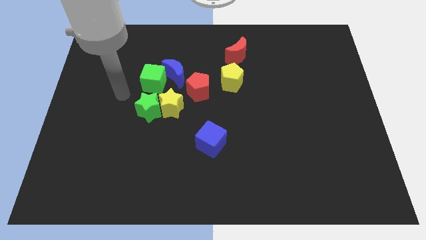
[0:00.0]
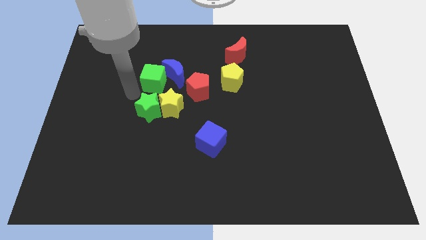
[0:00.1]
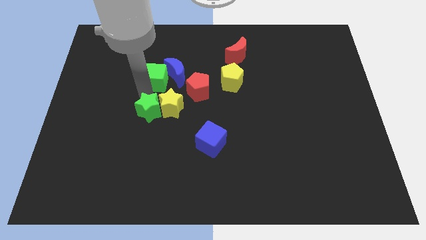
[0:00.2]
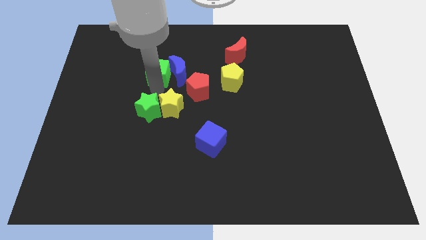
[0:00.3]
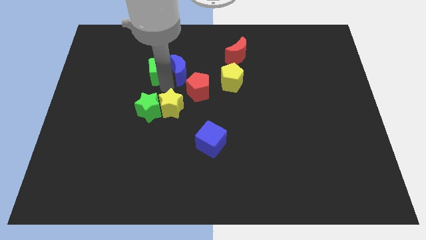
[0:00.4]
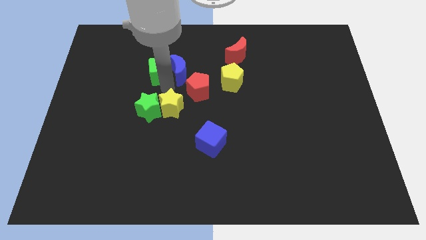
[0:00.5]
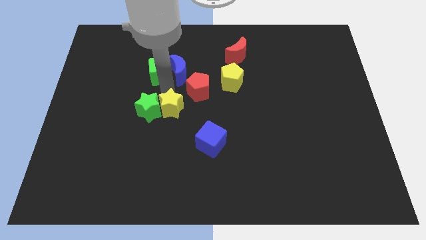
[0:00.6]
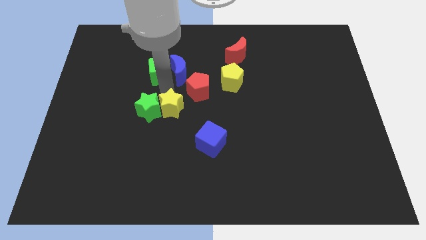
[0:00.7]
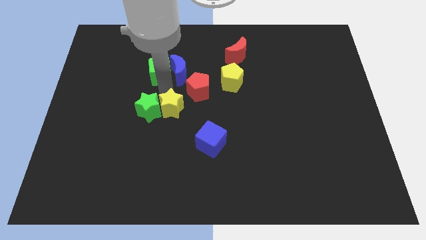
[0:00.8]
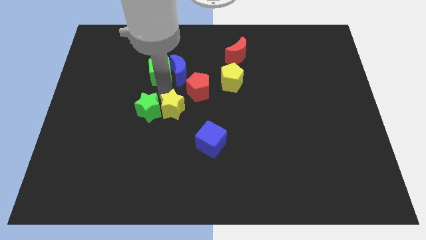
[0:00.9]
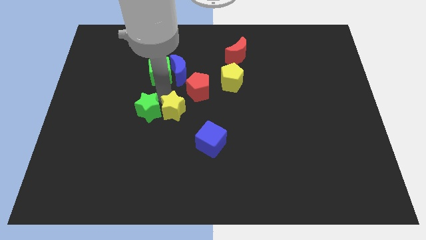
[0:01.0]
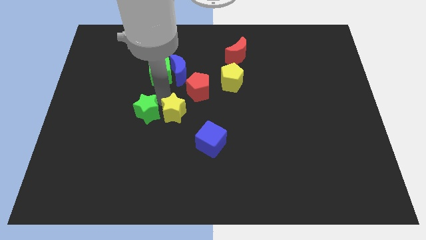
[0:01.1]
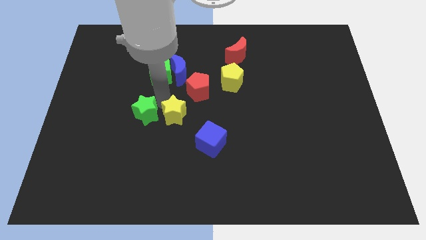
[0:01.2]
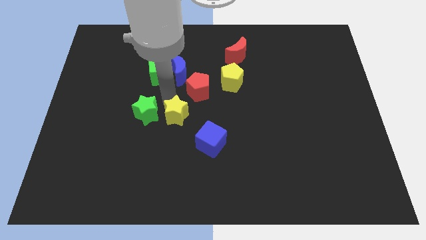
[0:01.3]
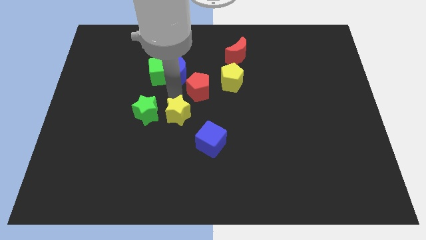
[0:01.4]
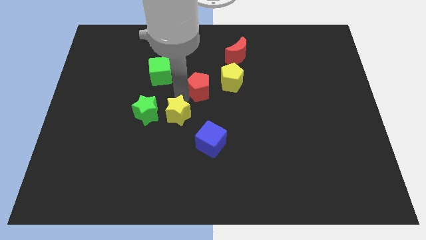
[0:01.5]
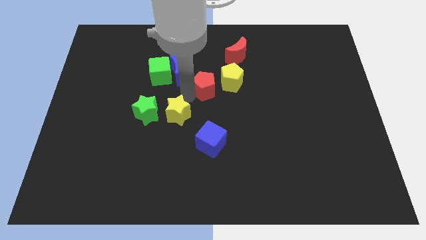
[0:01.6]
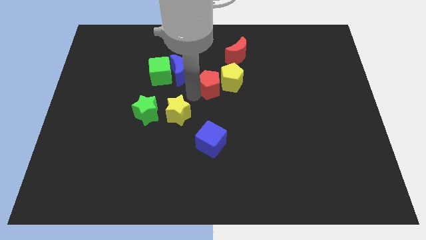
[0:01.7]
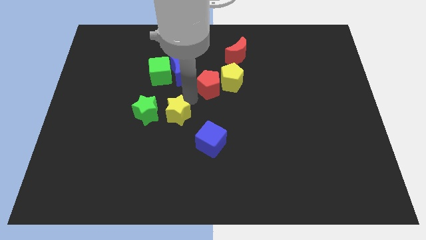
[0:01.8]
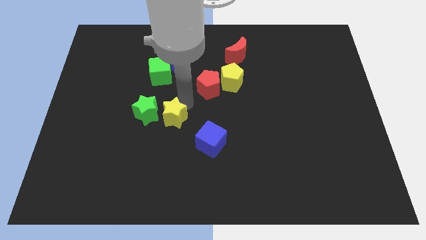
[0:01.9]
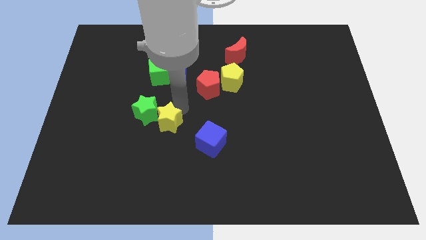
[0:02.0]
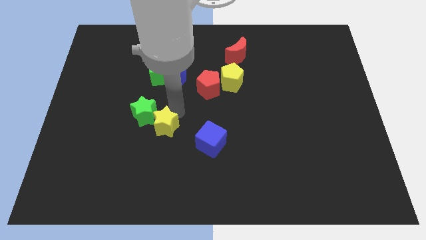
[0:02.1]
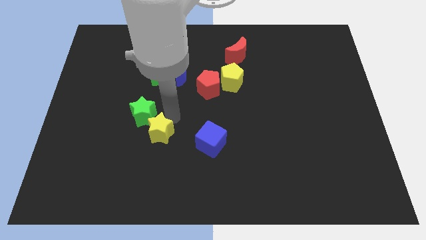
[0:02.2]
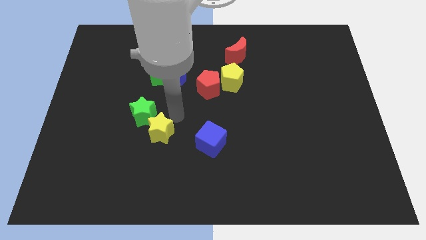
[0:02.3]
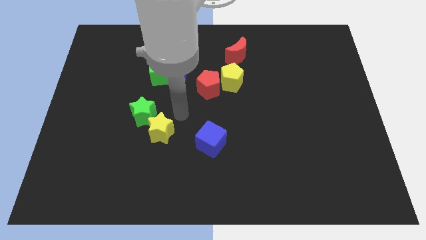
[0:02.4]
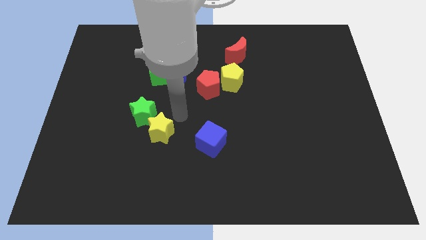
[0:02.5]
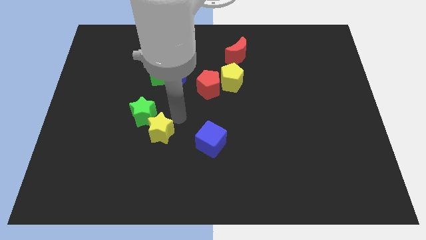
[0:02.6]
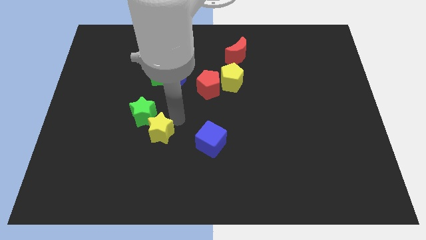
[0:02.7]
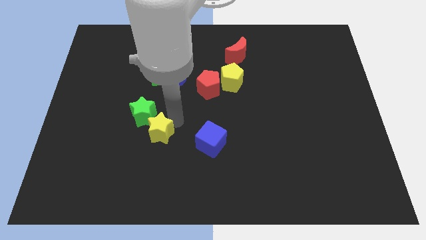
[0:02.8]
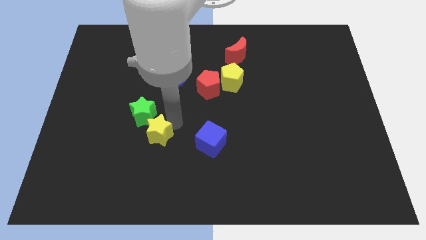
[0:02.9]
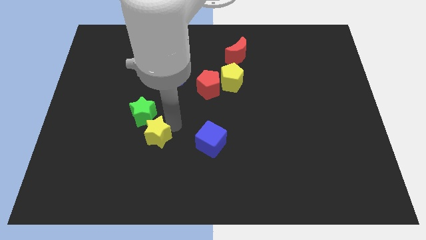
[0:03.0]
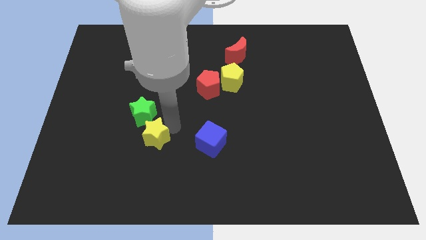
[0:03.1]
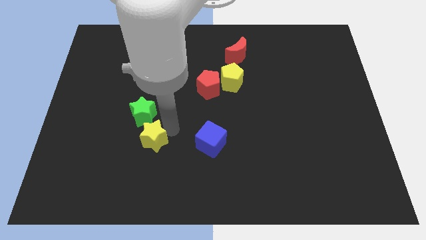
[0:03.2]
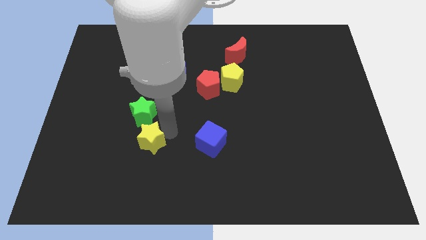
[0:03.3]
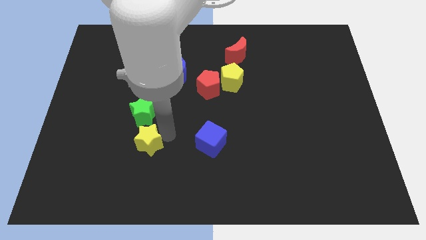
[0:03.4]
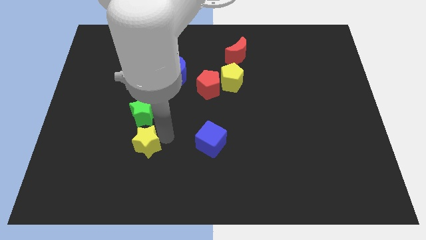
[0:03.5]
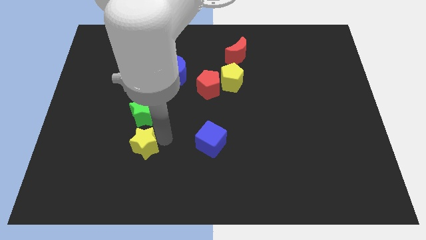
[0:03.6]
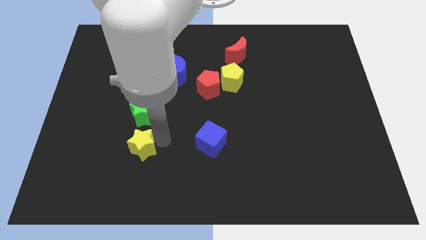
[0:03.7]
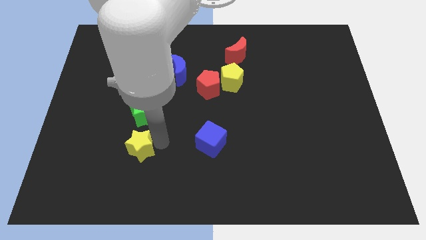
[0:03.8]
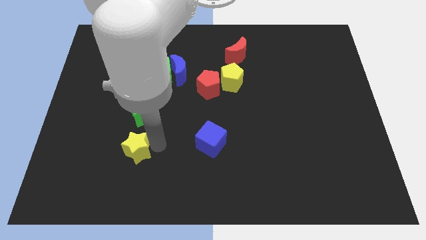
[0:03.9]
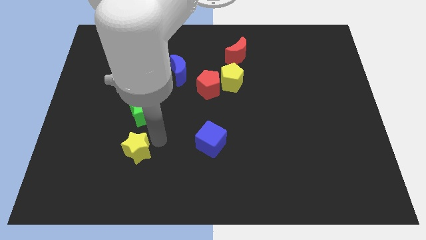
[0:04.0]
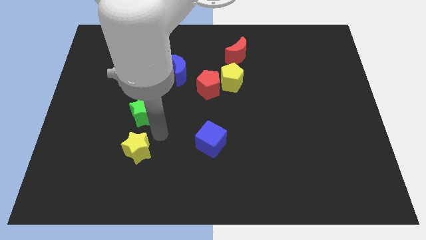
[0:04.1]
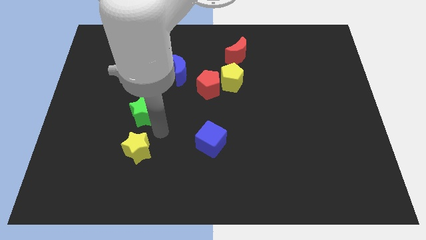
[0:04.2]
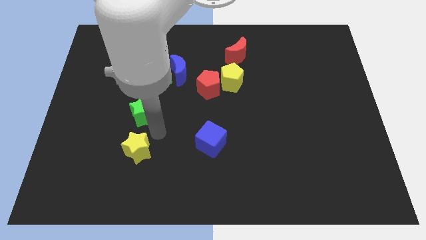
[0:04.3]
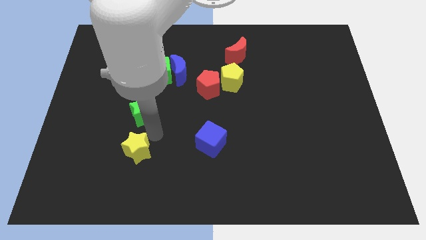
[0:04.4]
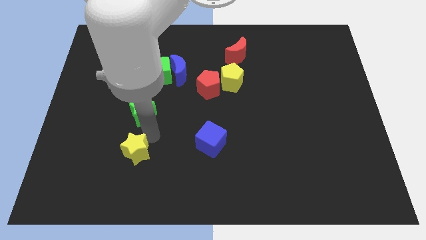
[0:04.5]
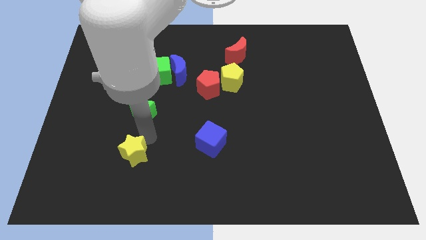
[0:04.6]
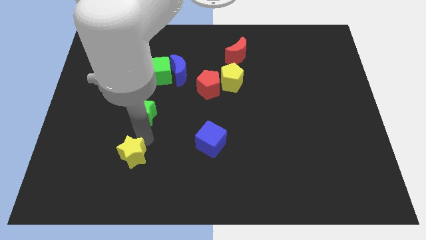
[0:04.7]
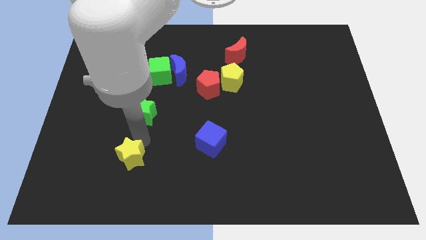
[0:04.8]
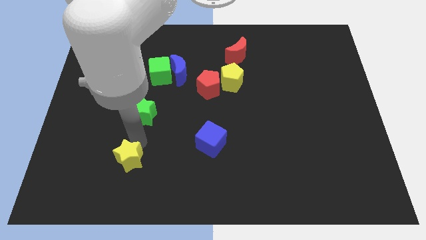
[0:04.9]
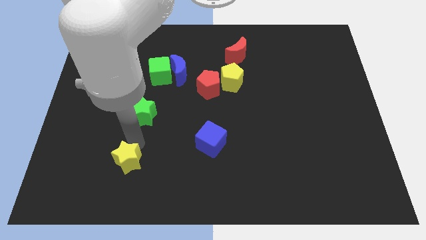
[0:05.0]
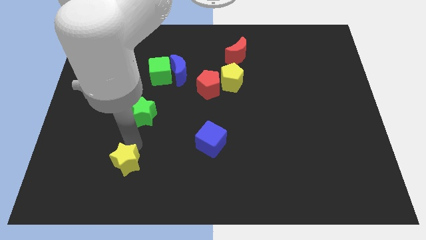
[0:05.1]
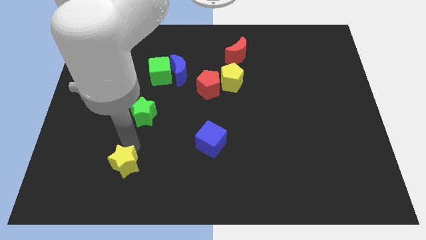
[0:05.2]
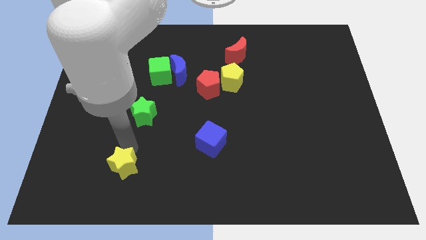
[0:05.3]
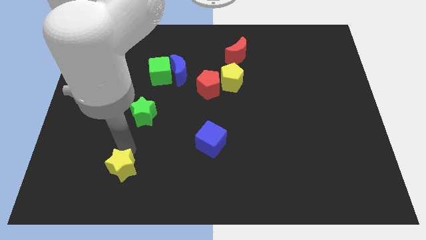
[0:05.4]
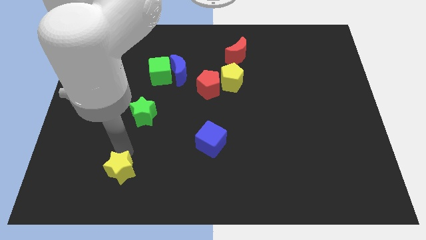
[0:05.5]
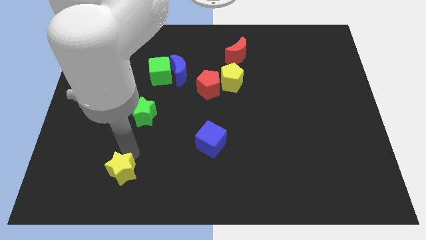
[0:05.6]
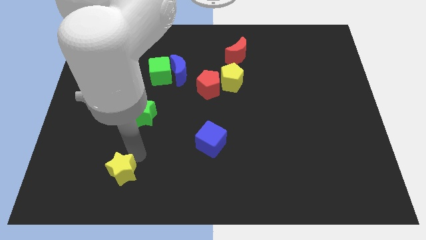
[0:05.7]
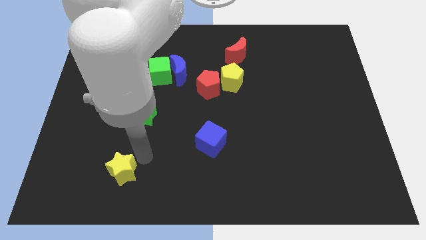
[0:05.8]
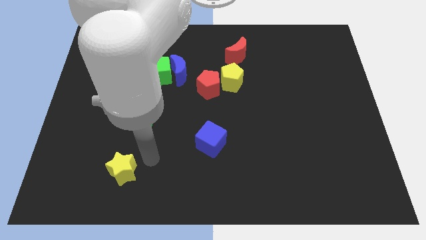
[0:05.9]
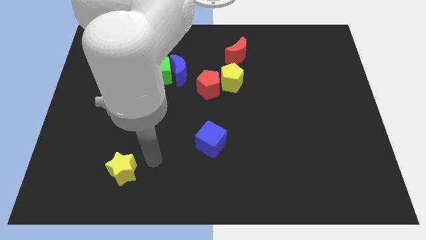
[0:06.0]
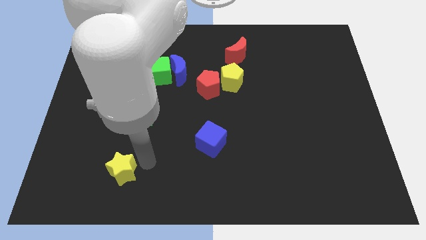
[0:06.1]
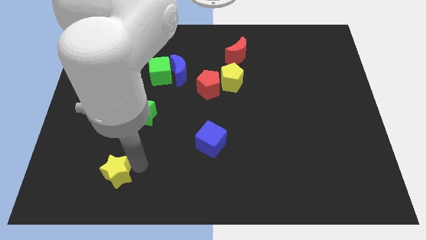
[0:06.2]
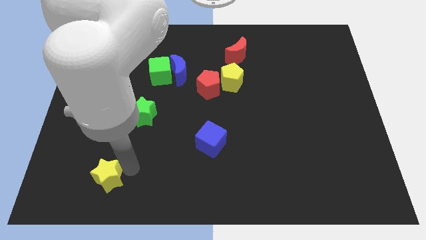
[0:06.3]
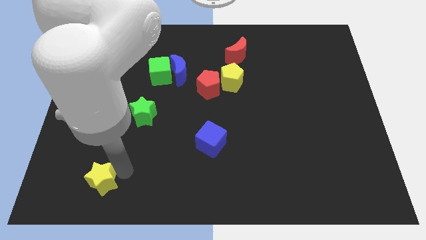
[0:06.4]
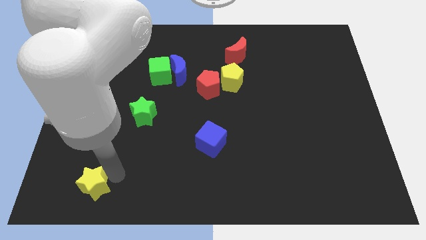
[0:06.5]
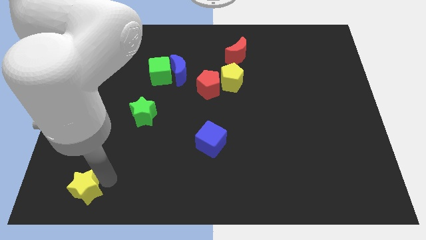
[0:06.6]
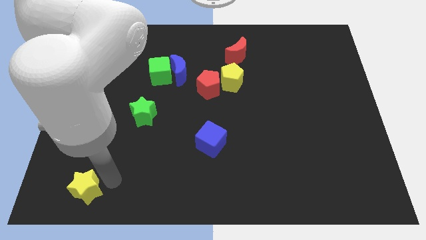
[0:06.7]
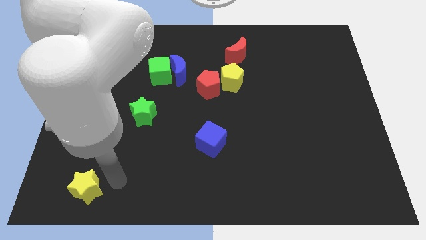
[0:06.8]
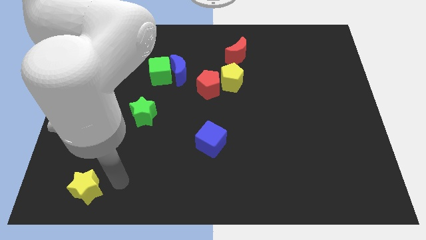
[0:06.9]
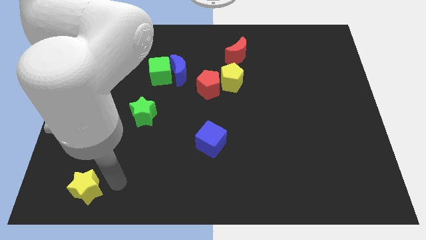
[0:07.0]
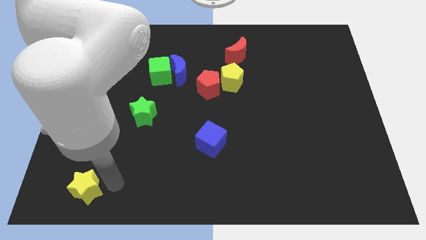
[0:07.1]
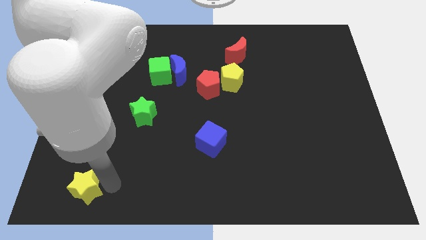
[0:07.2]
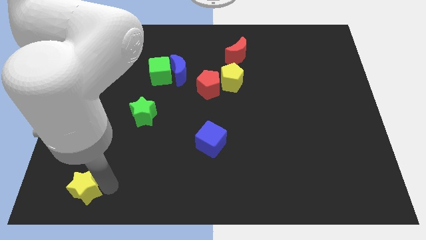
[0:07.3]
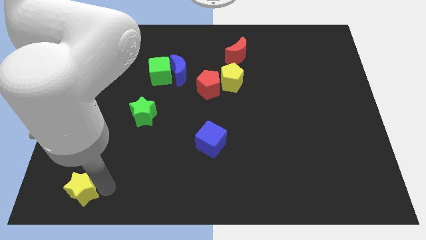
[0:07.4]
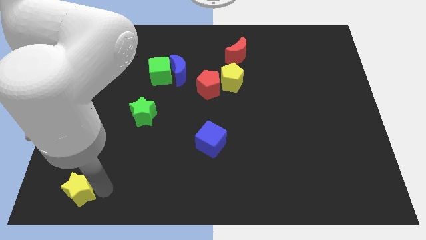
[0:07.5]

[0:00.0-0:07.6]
move the yellow star to the bottom left corner
